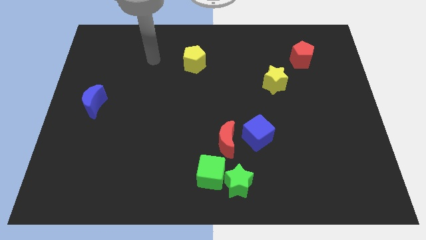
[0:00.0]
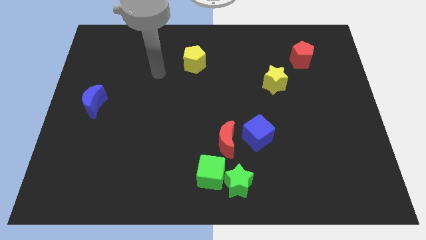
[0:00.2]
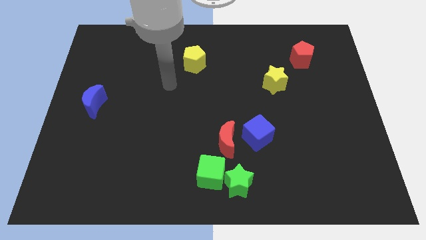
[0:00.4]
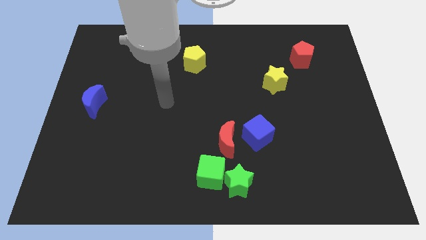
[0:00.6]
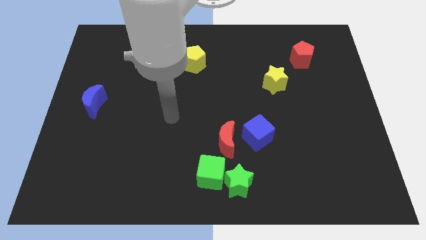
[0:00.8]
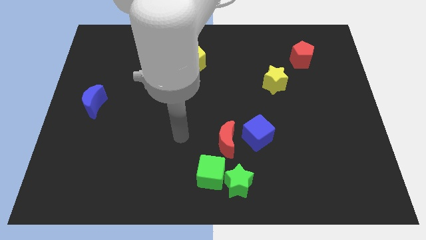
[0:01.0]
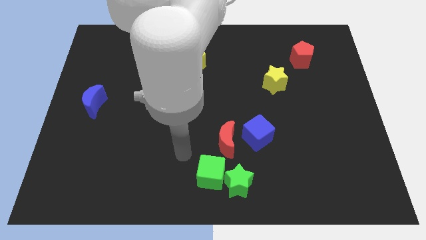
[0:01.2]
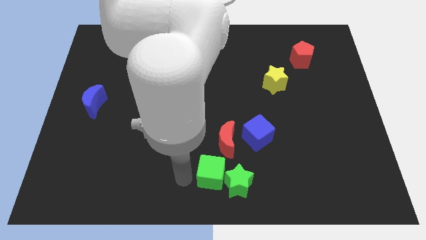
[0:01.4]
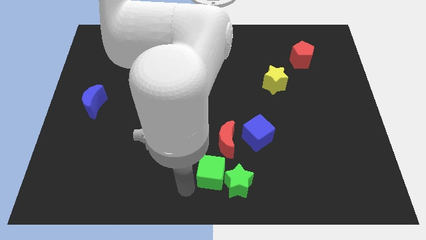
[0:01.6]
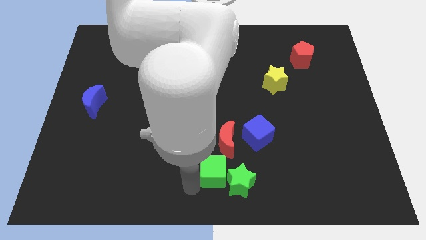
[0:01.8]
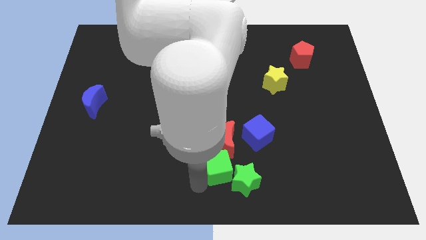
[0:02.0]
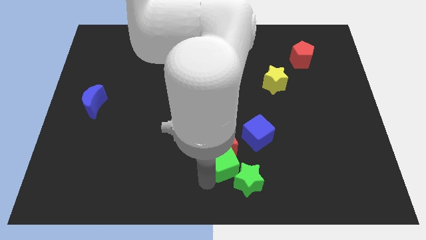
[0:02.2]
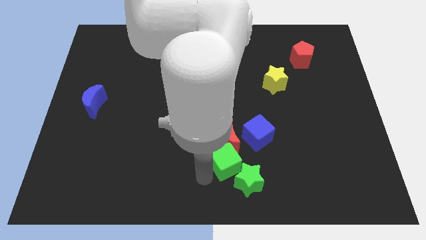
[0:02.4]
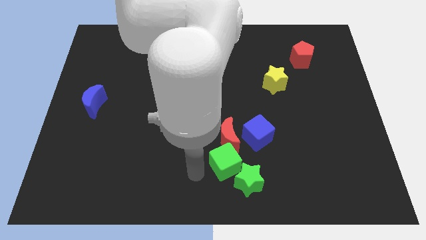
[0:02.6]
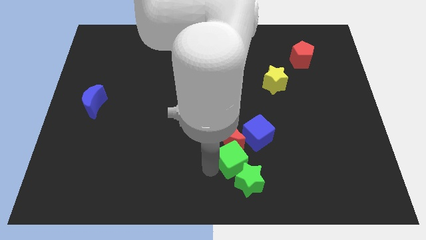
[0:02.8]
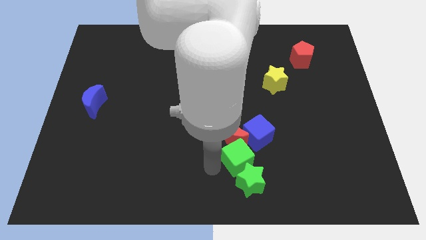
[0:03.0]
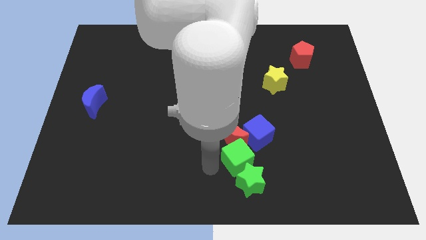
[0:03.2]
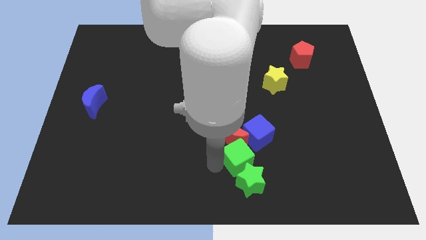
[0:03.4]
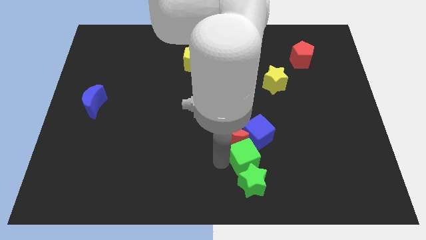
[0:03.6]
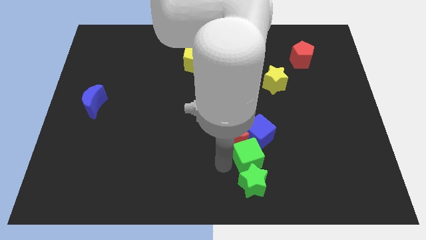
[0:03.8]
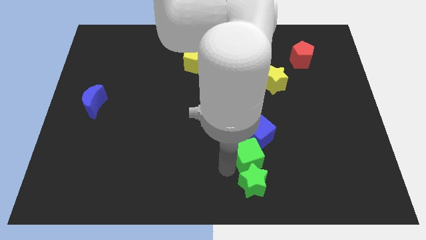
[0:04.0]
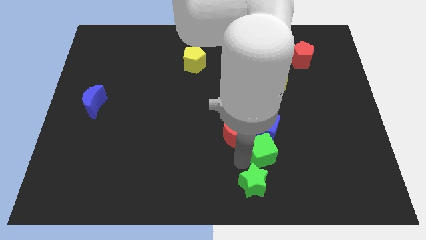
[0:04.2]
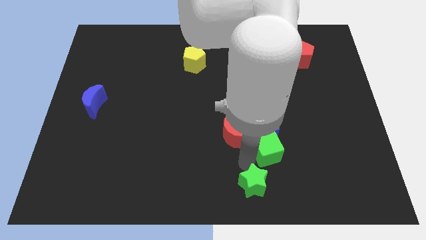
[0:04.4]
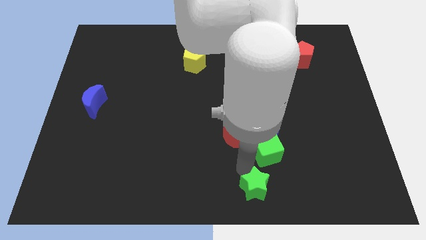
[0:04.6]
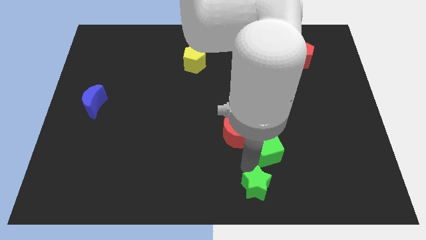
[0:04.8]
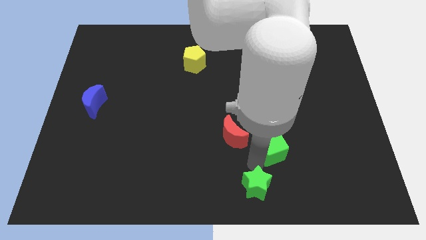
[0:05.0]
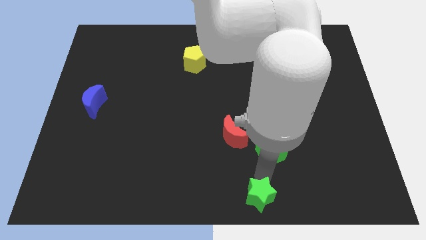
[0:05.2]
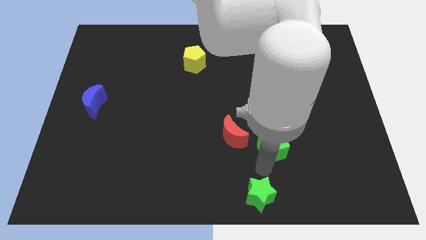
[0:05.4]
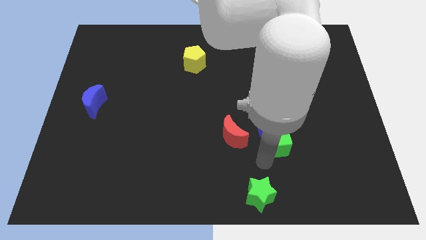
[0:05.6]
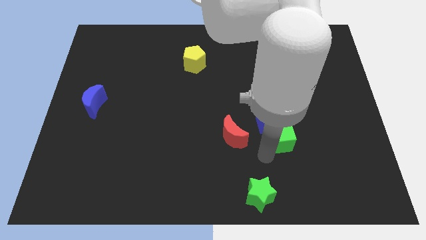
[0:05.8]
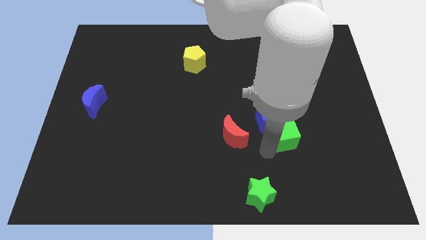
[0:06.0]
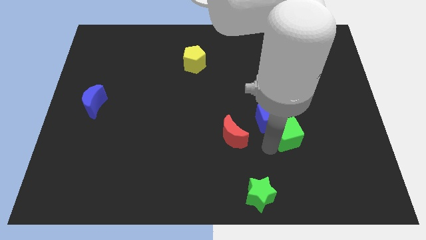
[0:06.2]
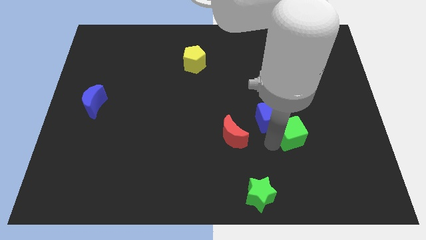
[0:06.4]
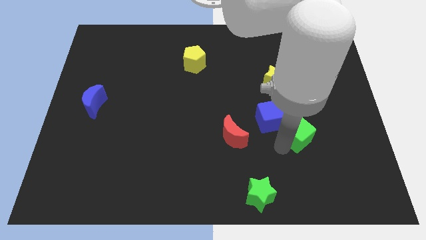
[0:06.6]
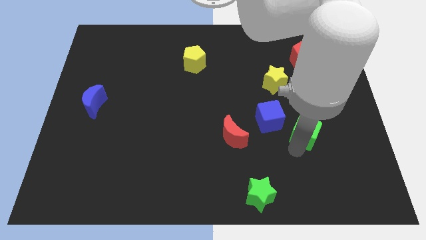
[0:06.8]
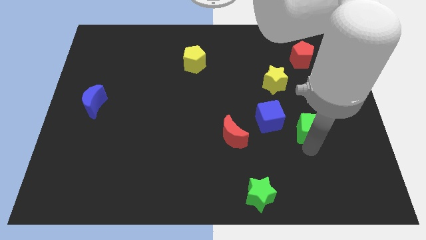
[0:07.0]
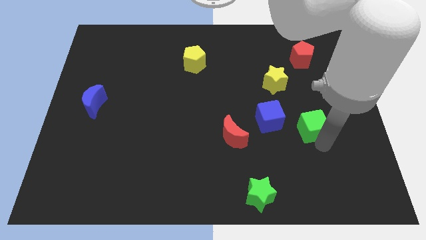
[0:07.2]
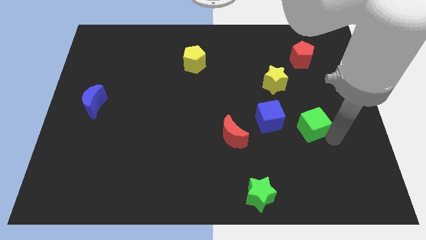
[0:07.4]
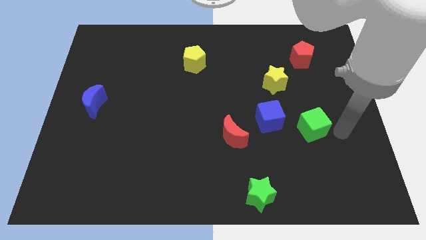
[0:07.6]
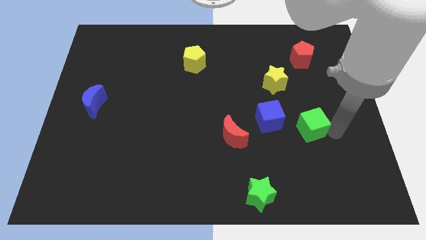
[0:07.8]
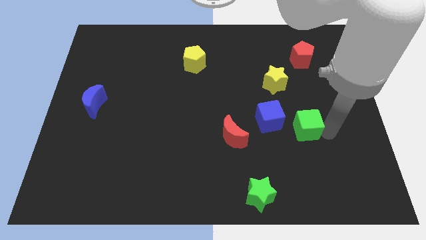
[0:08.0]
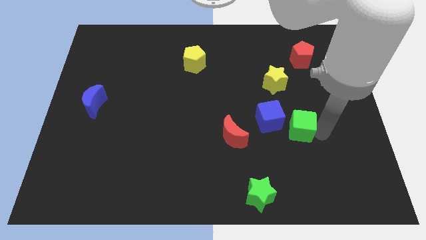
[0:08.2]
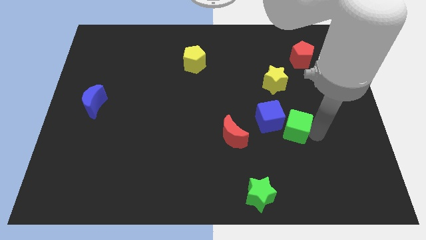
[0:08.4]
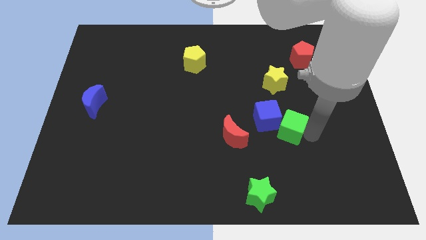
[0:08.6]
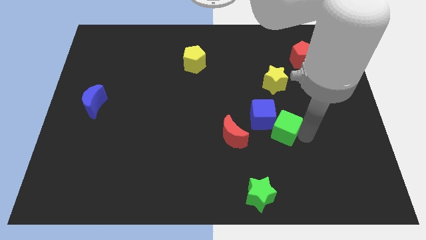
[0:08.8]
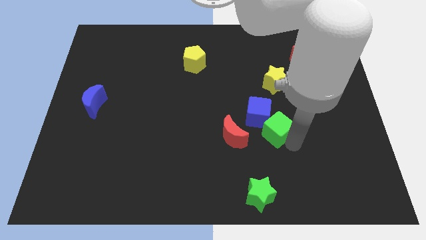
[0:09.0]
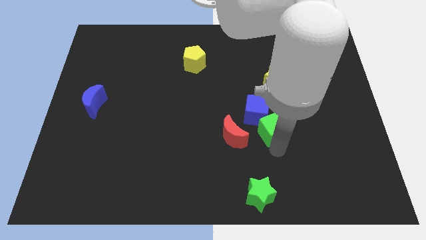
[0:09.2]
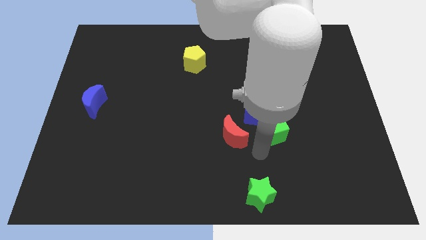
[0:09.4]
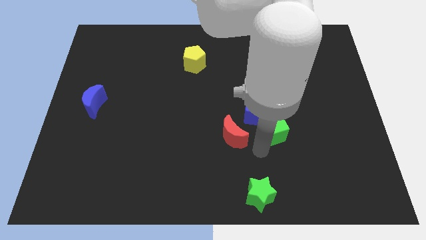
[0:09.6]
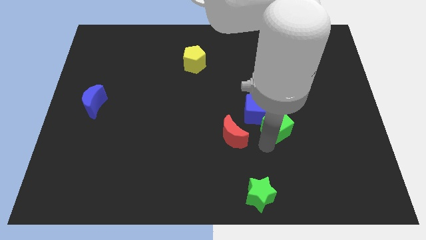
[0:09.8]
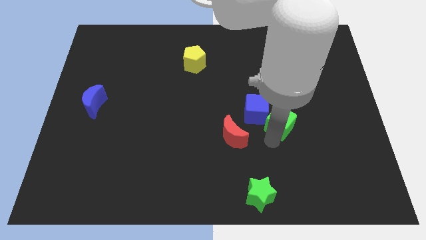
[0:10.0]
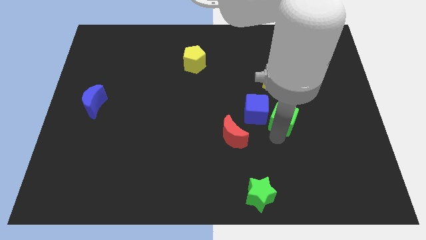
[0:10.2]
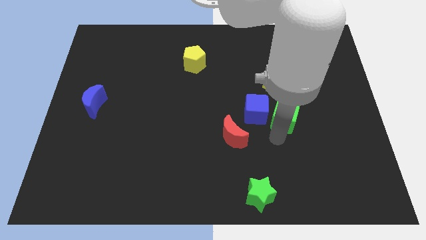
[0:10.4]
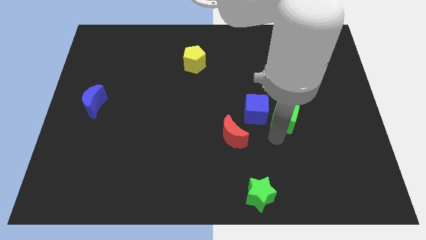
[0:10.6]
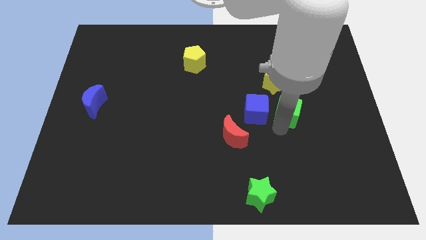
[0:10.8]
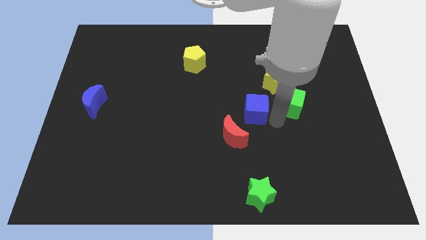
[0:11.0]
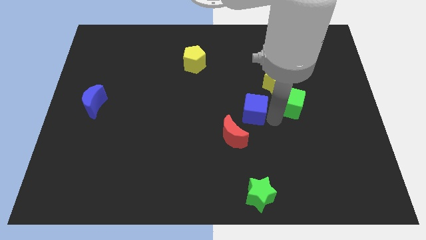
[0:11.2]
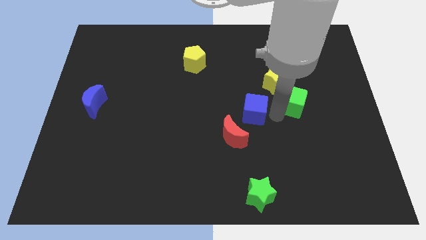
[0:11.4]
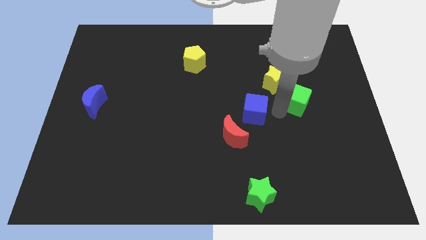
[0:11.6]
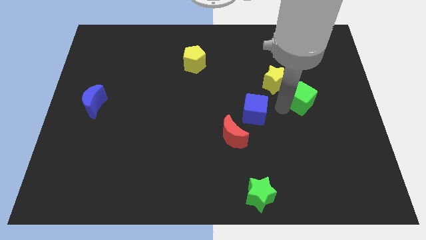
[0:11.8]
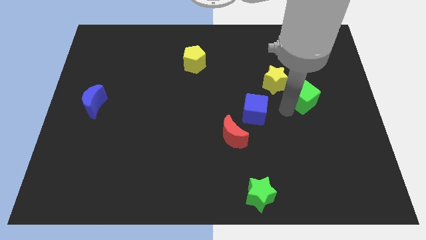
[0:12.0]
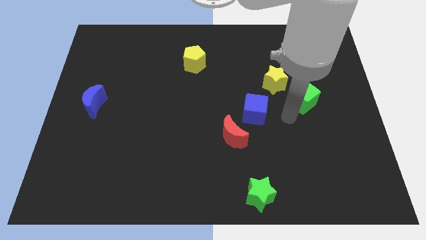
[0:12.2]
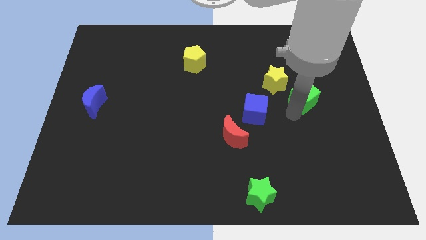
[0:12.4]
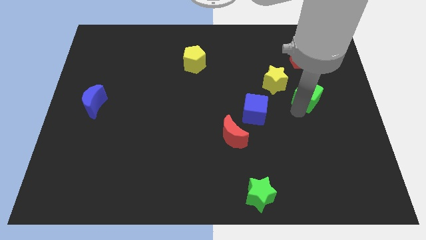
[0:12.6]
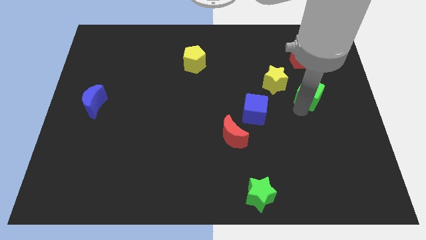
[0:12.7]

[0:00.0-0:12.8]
push the green cube right of the yellow star

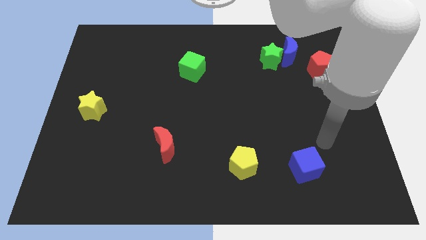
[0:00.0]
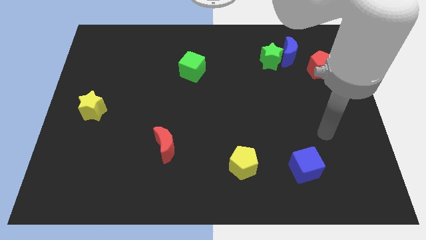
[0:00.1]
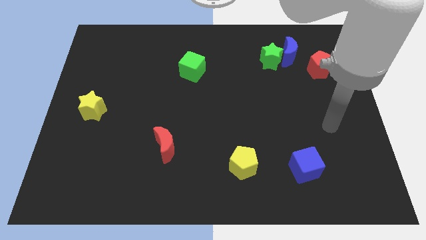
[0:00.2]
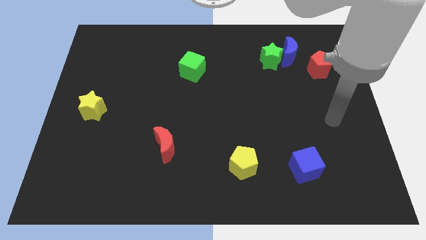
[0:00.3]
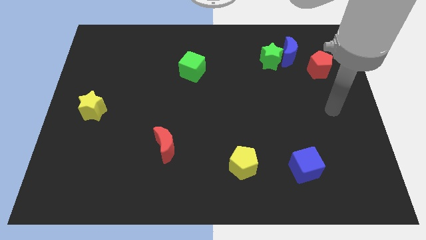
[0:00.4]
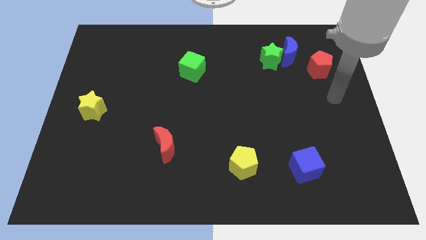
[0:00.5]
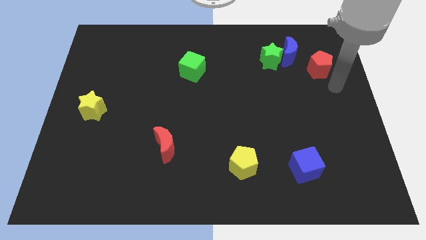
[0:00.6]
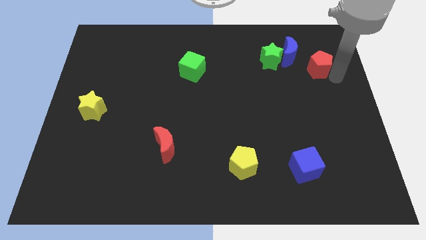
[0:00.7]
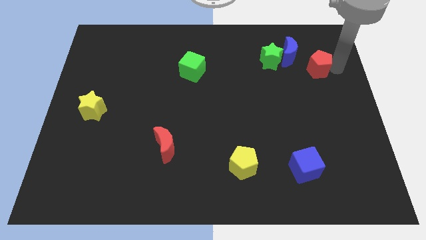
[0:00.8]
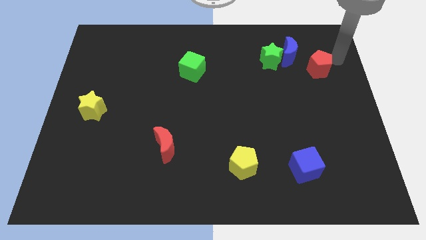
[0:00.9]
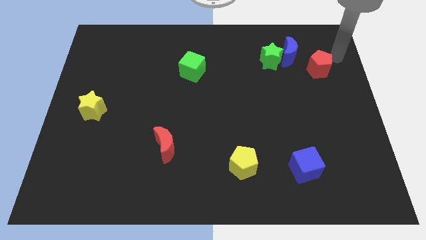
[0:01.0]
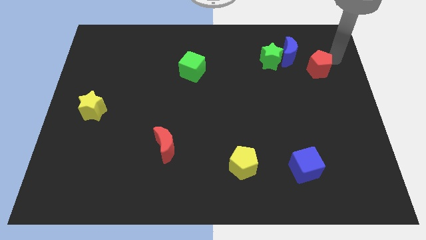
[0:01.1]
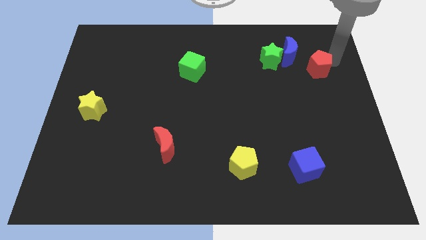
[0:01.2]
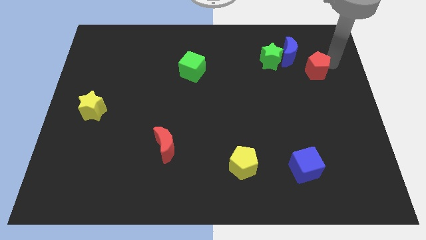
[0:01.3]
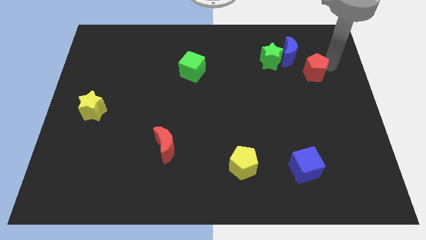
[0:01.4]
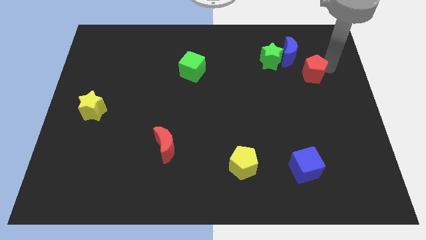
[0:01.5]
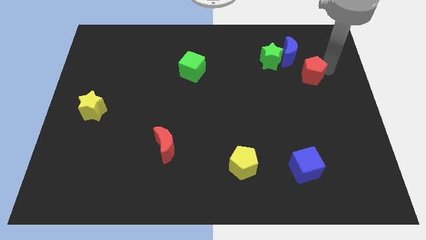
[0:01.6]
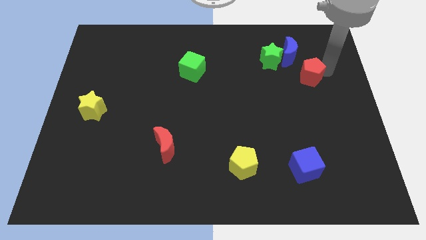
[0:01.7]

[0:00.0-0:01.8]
push the red pentagon to the bottom of the blue moon
